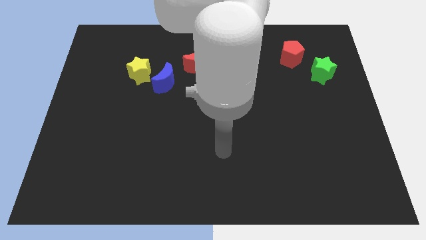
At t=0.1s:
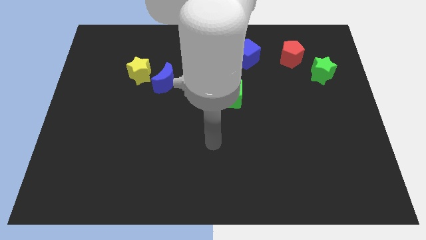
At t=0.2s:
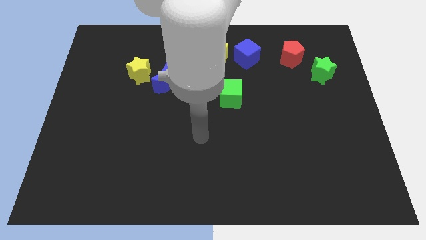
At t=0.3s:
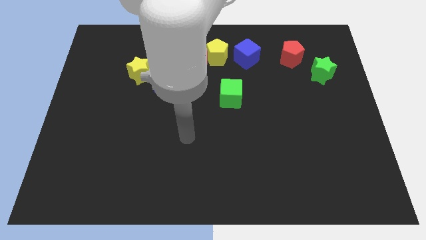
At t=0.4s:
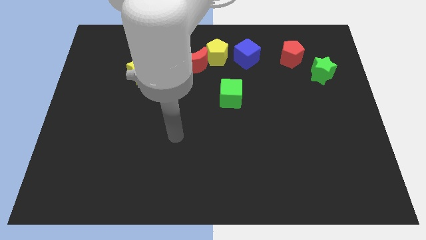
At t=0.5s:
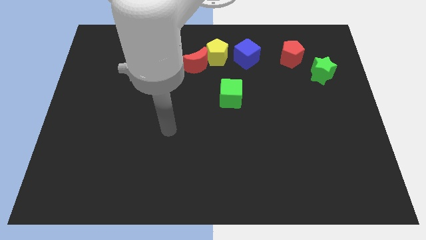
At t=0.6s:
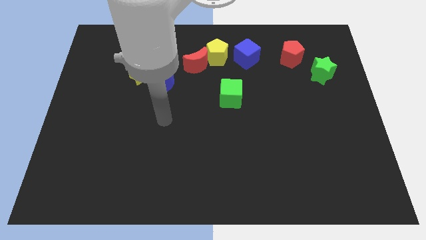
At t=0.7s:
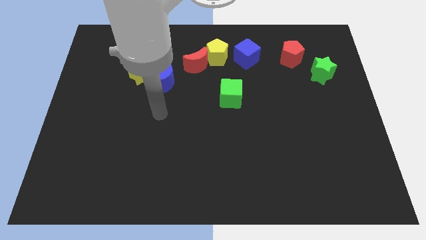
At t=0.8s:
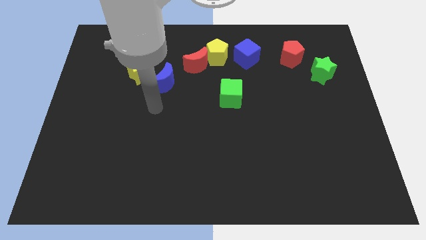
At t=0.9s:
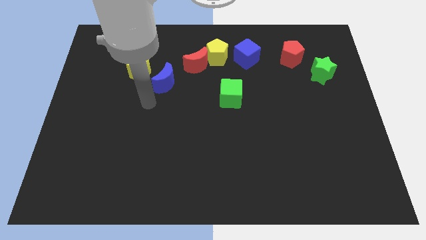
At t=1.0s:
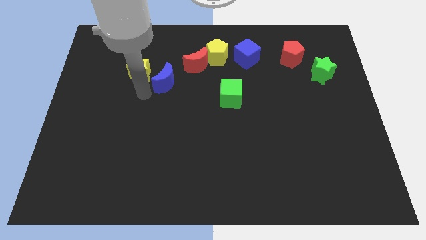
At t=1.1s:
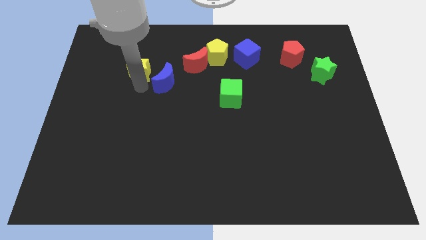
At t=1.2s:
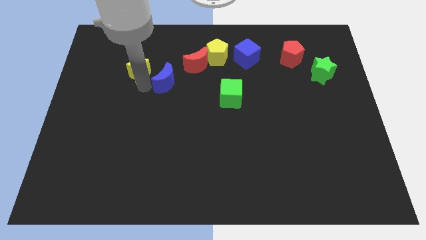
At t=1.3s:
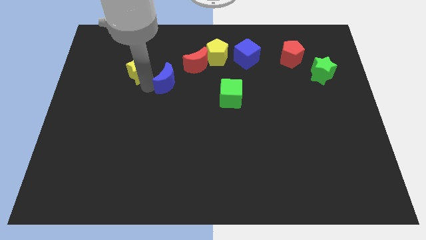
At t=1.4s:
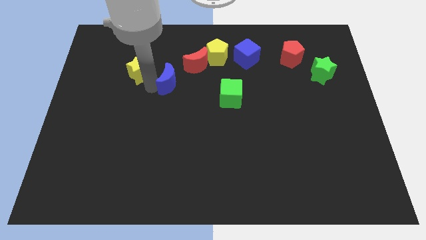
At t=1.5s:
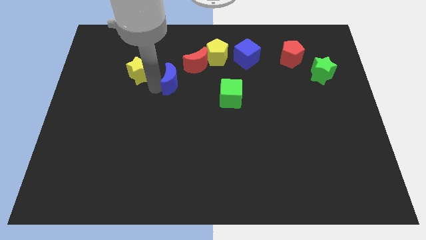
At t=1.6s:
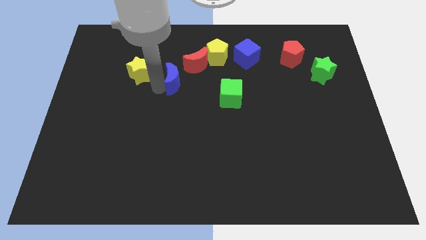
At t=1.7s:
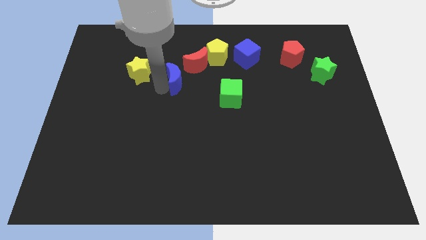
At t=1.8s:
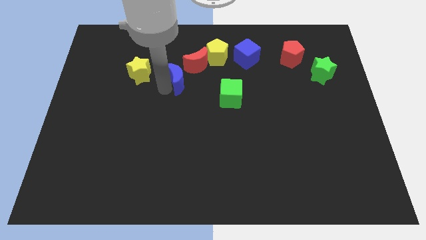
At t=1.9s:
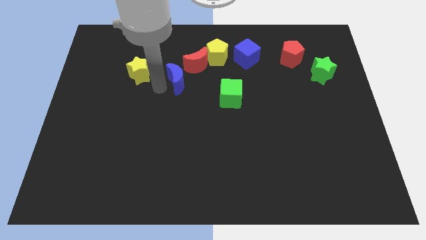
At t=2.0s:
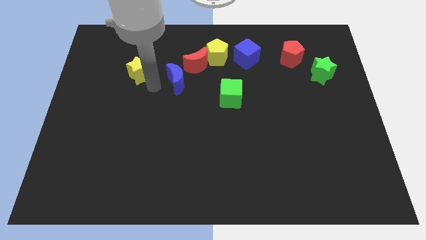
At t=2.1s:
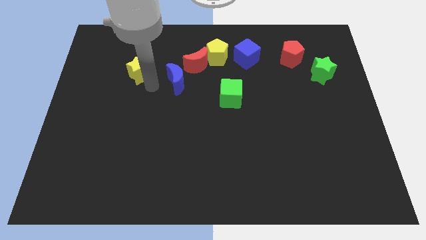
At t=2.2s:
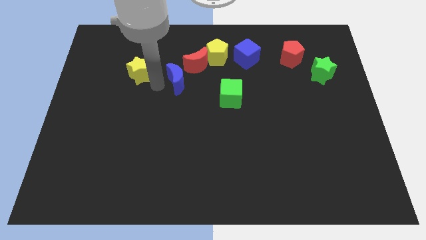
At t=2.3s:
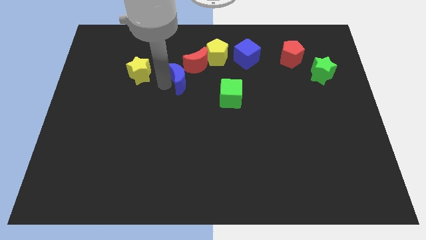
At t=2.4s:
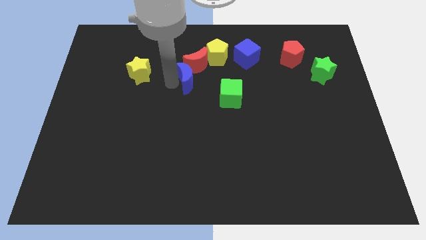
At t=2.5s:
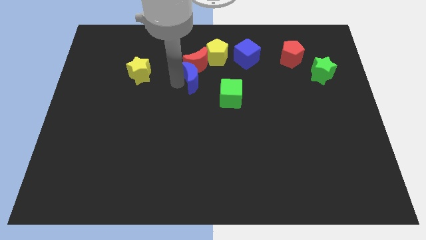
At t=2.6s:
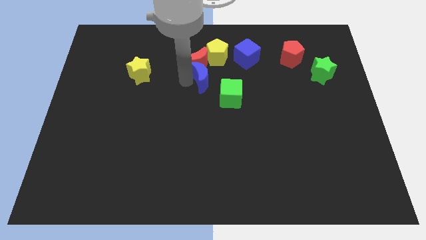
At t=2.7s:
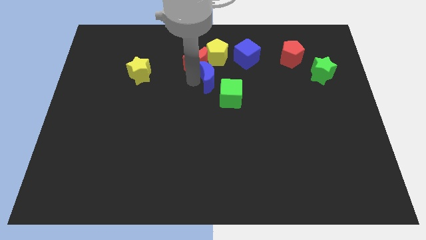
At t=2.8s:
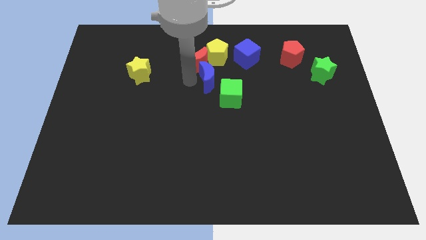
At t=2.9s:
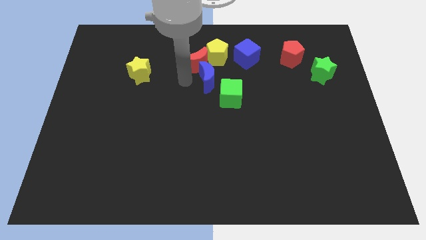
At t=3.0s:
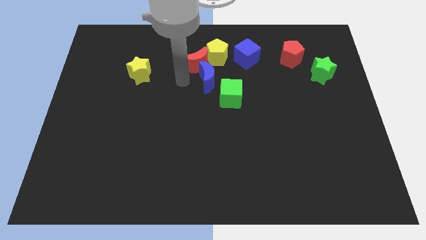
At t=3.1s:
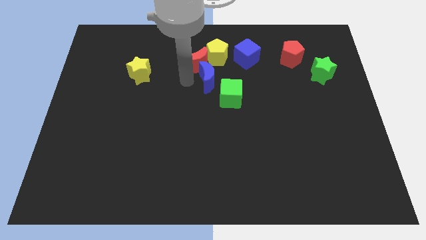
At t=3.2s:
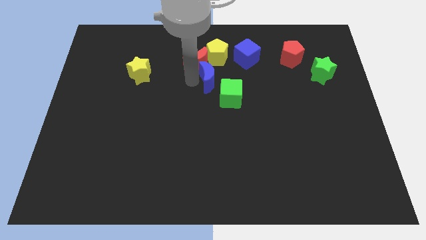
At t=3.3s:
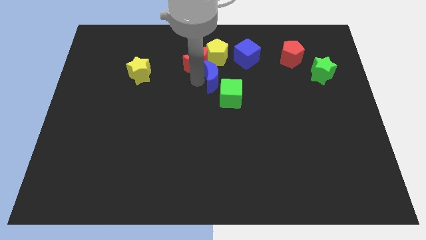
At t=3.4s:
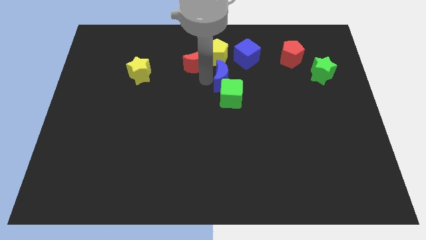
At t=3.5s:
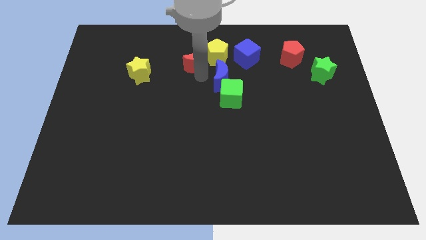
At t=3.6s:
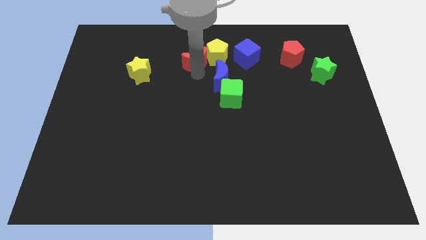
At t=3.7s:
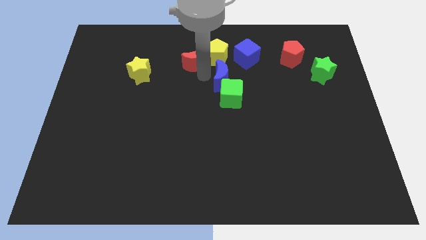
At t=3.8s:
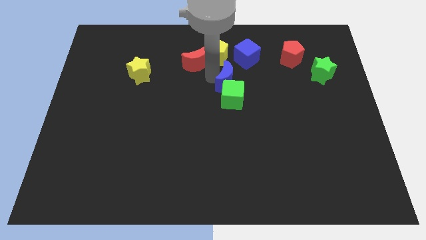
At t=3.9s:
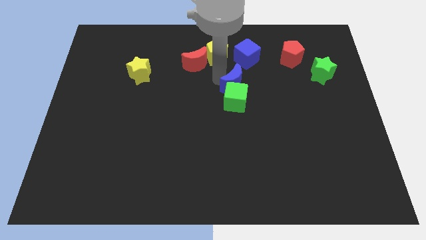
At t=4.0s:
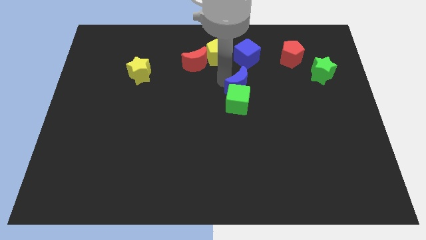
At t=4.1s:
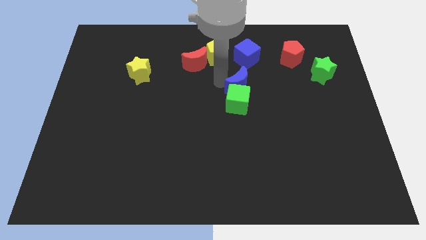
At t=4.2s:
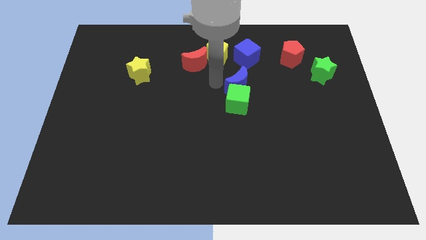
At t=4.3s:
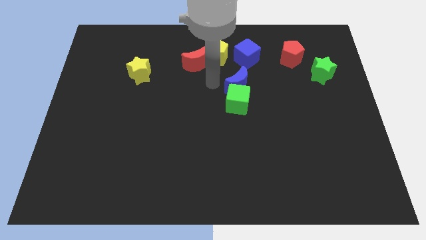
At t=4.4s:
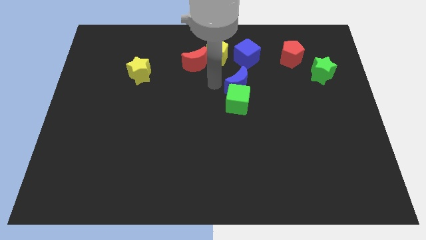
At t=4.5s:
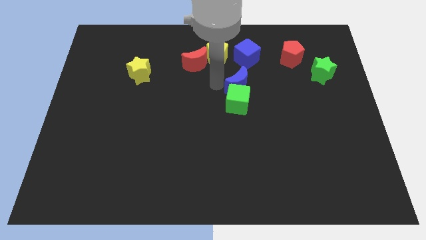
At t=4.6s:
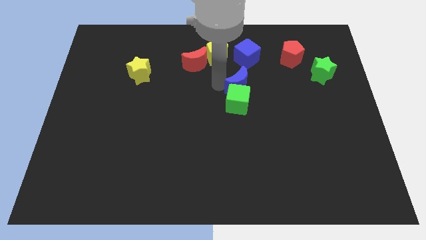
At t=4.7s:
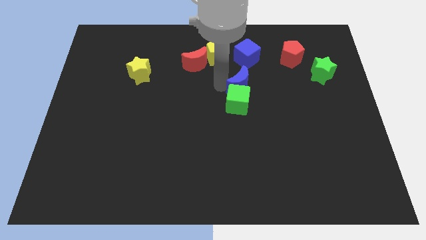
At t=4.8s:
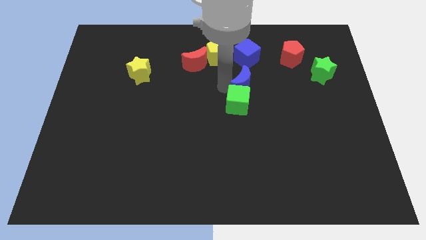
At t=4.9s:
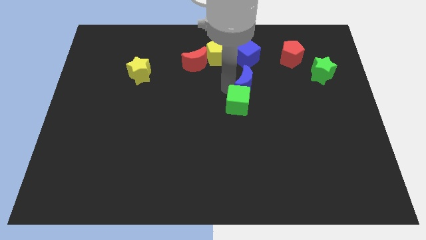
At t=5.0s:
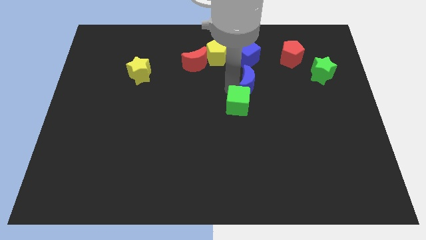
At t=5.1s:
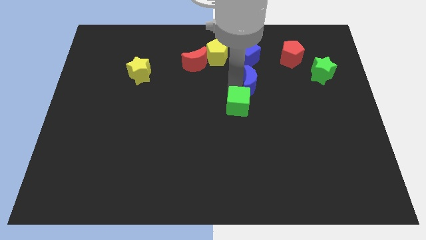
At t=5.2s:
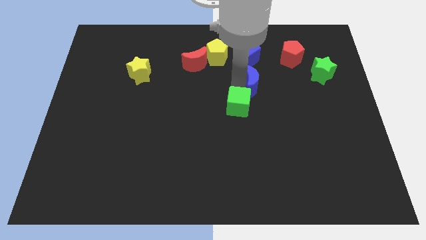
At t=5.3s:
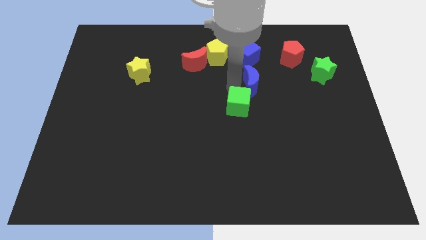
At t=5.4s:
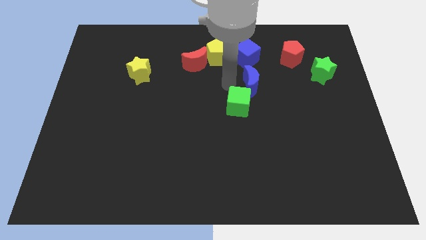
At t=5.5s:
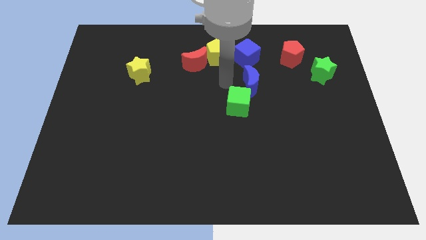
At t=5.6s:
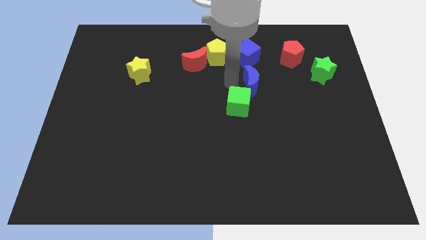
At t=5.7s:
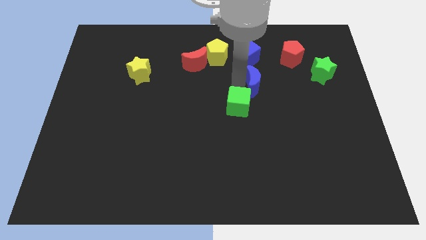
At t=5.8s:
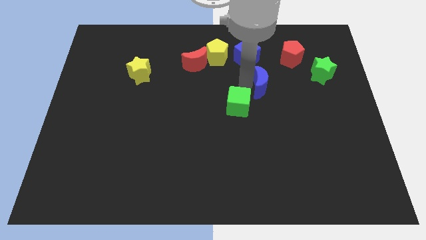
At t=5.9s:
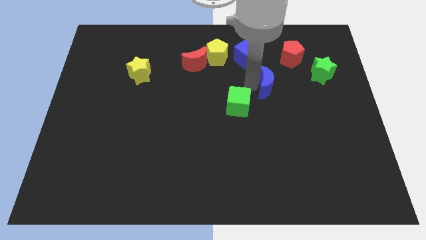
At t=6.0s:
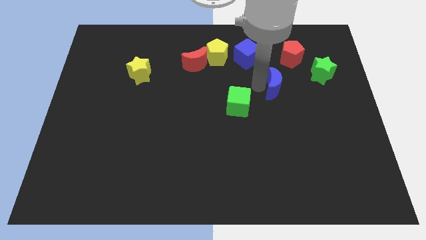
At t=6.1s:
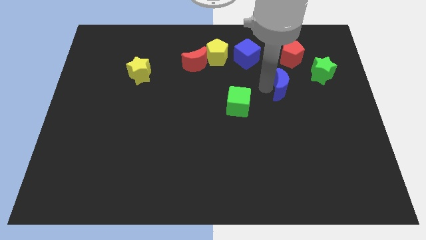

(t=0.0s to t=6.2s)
move the blue moon to the bottom side of the red pentagon

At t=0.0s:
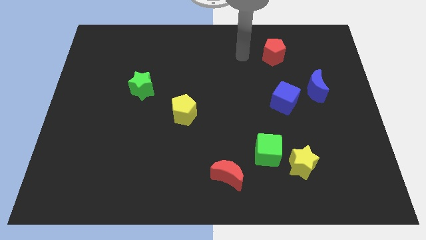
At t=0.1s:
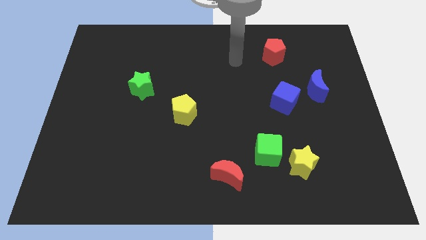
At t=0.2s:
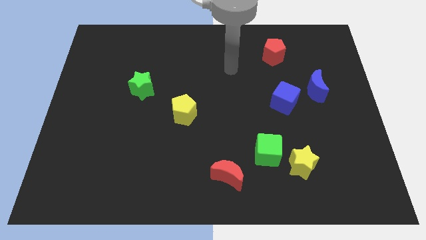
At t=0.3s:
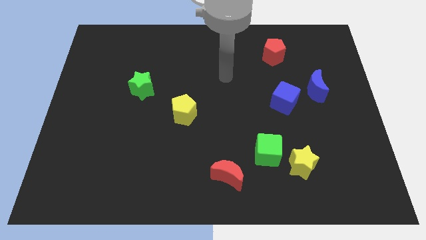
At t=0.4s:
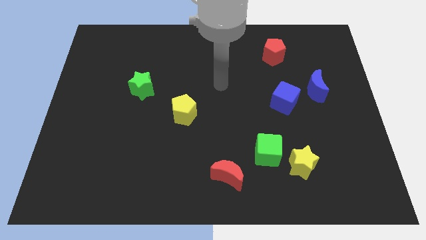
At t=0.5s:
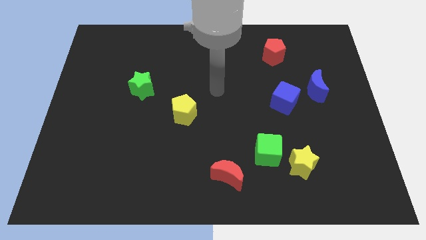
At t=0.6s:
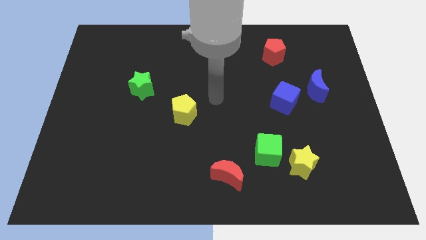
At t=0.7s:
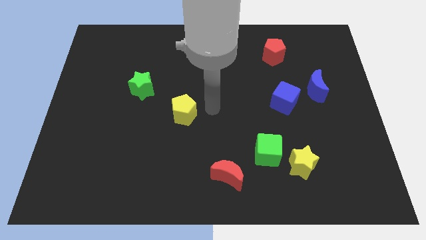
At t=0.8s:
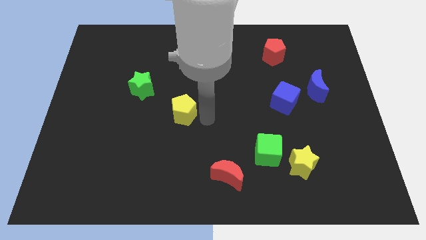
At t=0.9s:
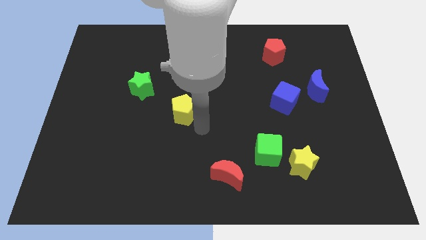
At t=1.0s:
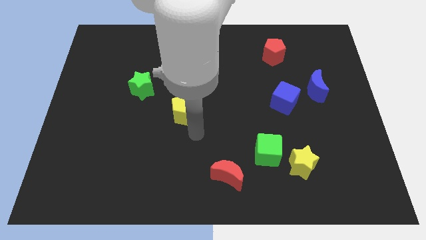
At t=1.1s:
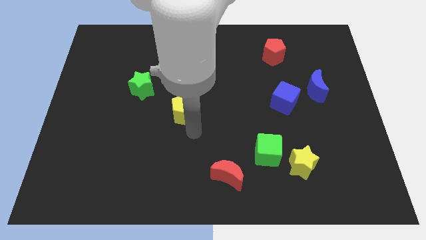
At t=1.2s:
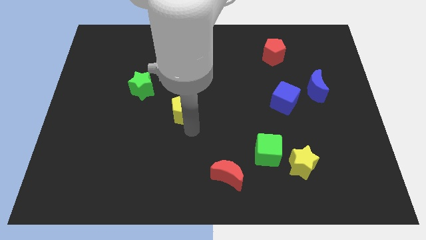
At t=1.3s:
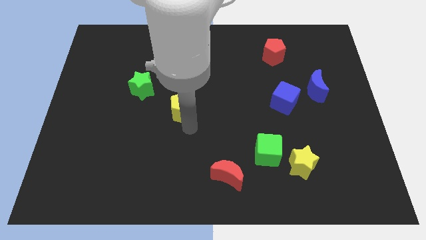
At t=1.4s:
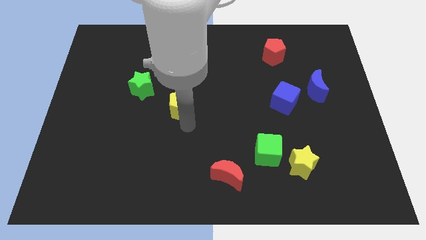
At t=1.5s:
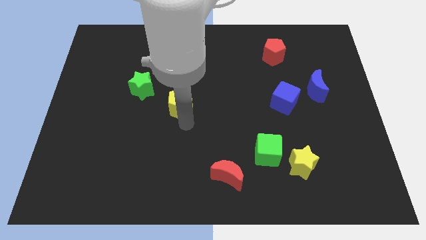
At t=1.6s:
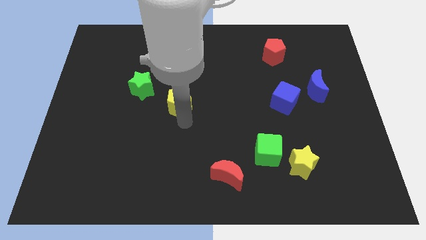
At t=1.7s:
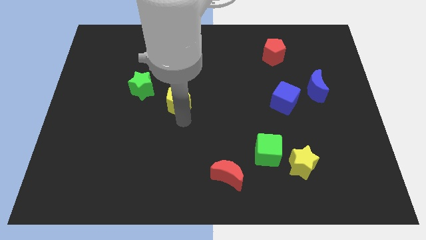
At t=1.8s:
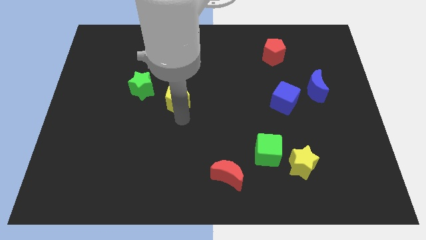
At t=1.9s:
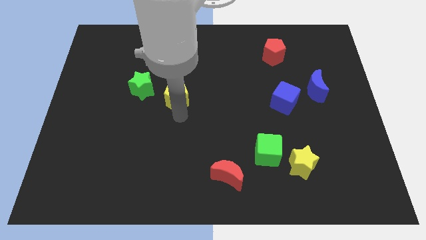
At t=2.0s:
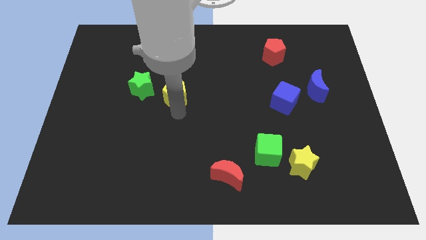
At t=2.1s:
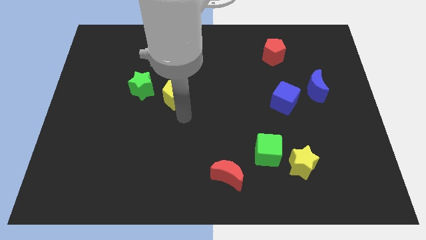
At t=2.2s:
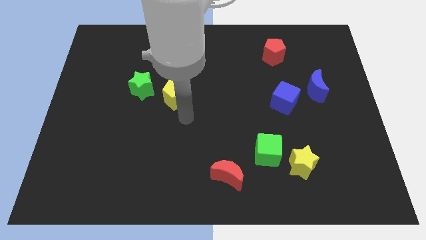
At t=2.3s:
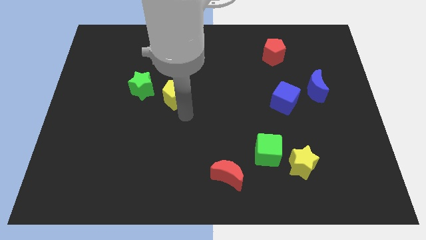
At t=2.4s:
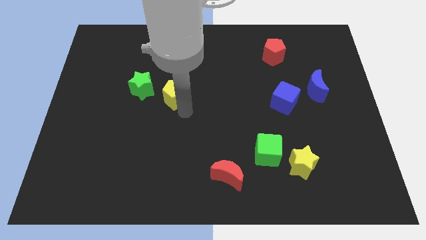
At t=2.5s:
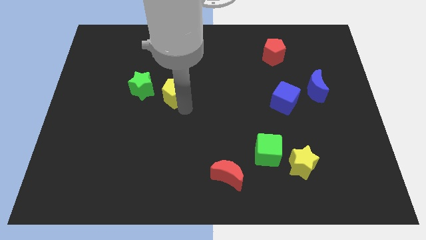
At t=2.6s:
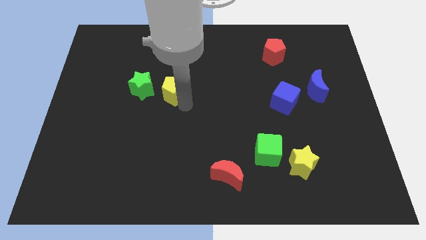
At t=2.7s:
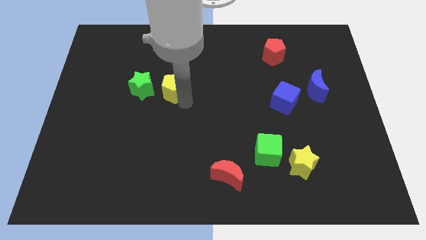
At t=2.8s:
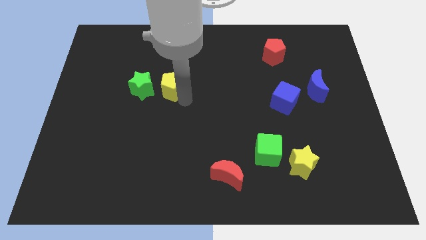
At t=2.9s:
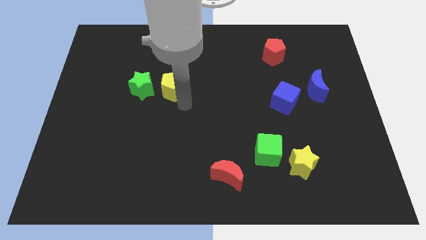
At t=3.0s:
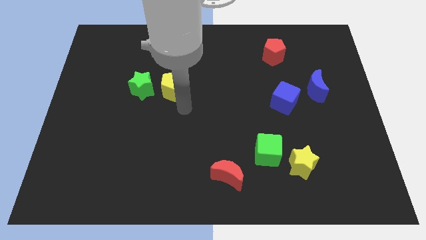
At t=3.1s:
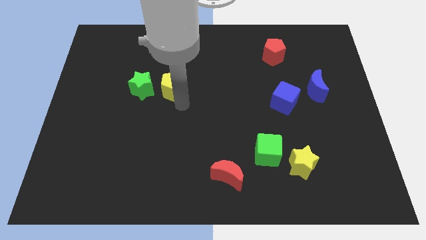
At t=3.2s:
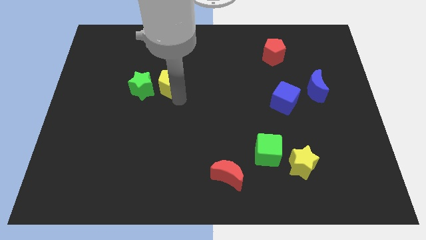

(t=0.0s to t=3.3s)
push the yellow pentagon to the top right side of the green star
